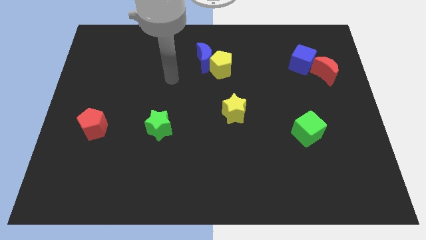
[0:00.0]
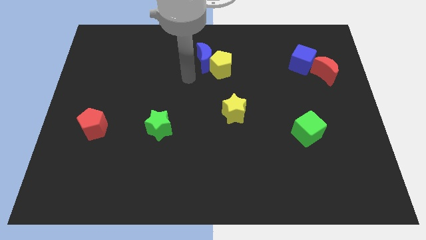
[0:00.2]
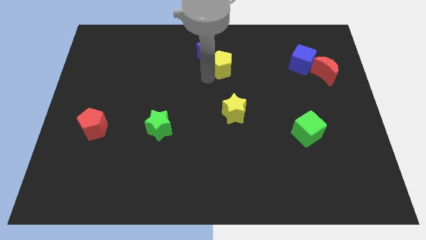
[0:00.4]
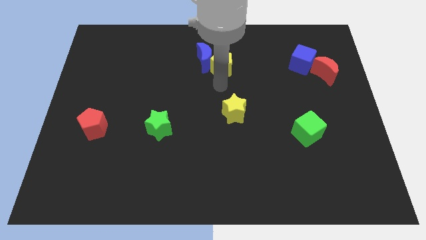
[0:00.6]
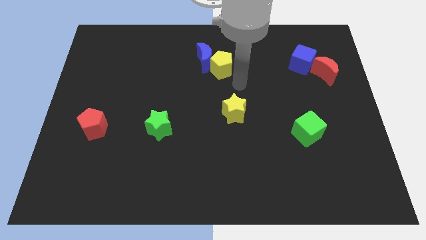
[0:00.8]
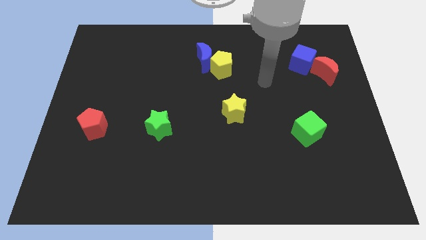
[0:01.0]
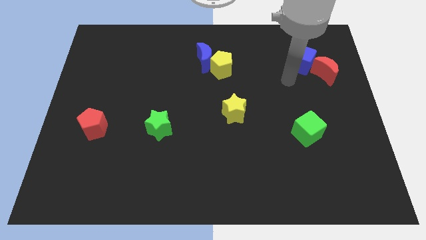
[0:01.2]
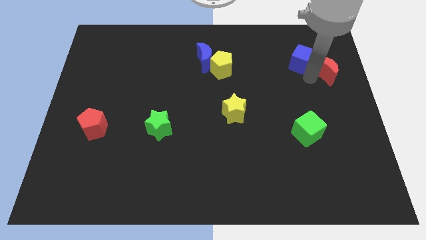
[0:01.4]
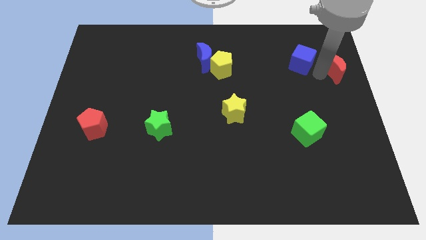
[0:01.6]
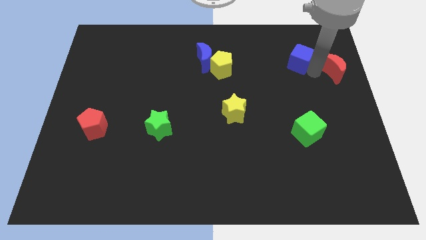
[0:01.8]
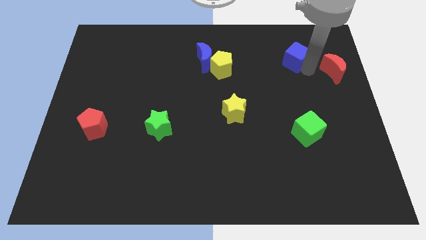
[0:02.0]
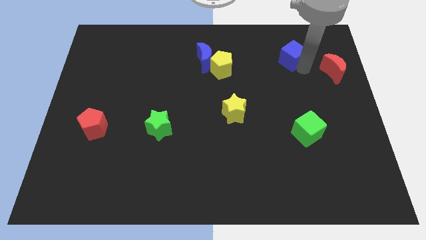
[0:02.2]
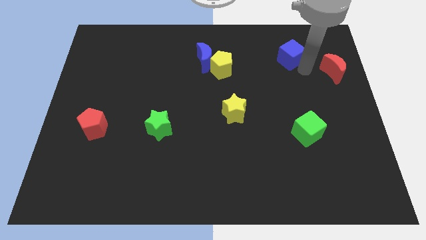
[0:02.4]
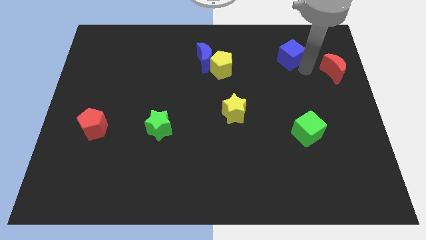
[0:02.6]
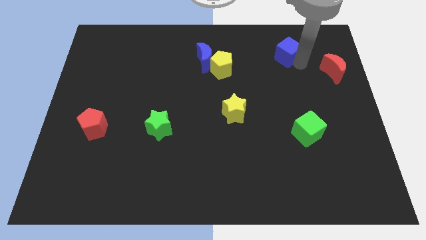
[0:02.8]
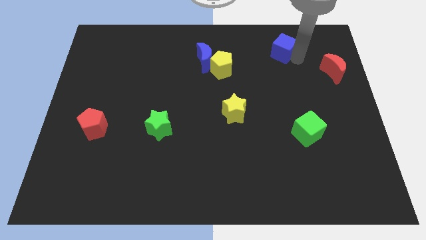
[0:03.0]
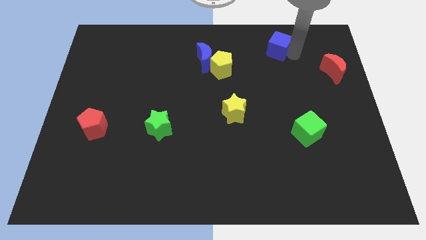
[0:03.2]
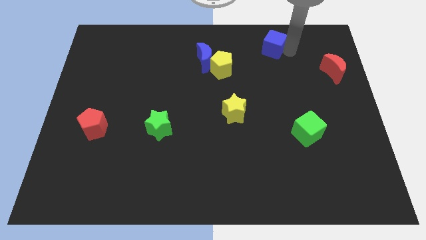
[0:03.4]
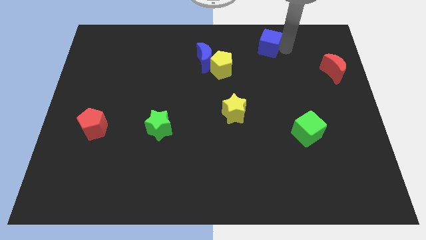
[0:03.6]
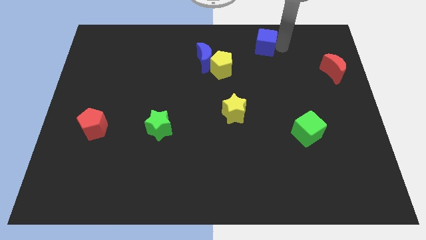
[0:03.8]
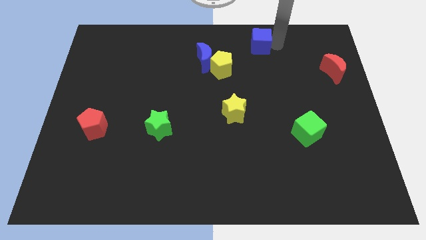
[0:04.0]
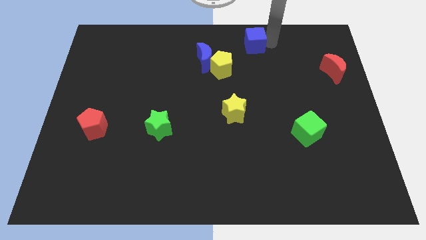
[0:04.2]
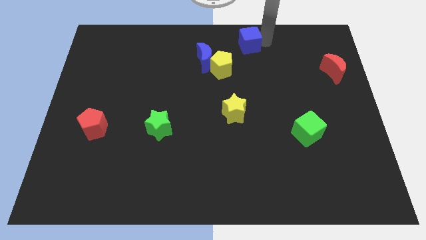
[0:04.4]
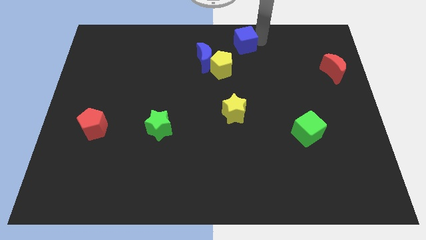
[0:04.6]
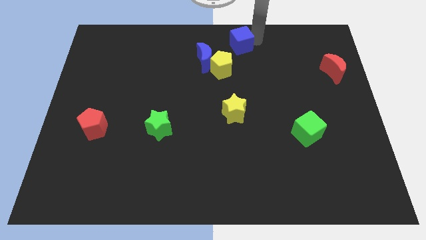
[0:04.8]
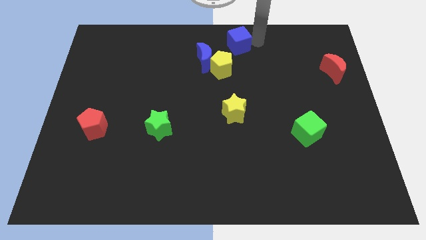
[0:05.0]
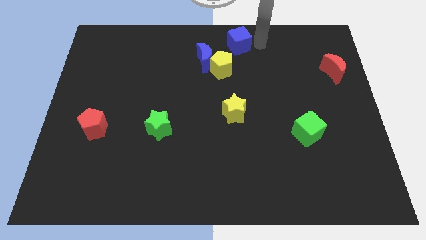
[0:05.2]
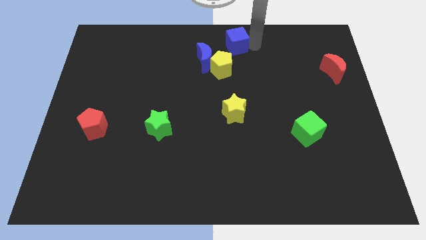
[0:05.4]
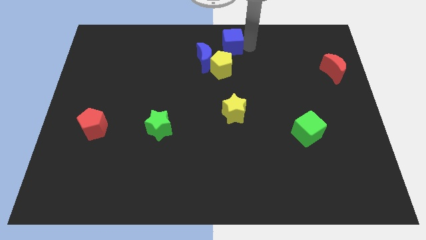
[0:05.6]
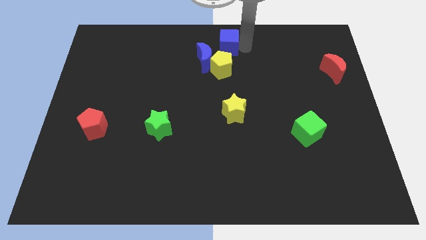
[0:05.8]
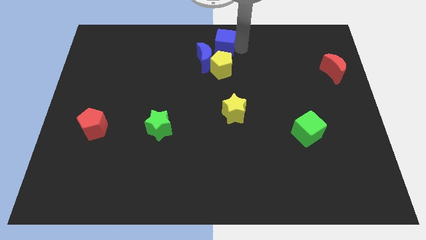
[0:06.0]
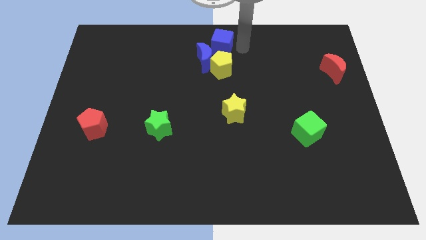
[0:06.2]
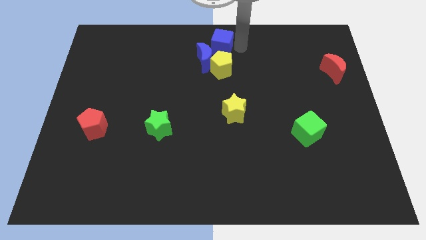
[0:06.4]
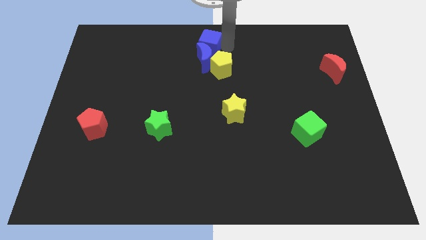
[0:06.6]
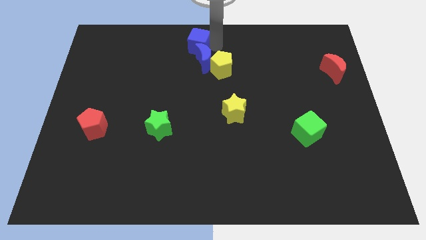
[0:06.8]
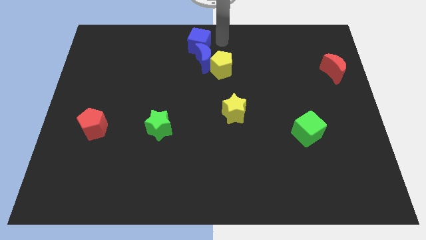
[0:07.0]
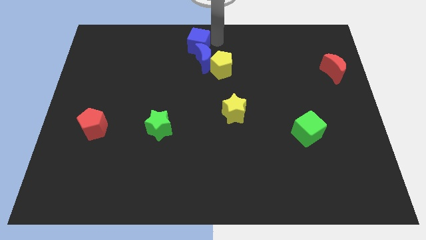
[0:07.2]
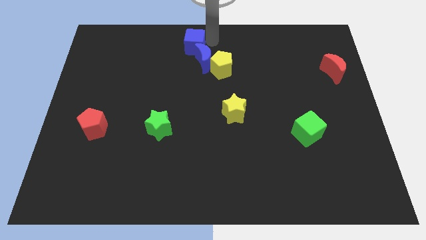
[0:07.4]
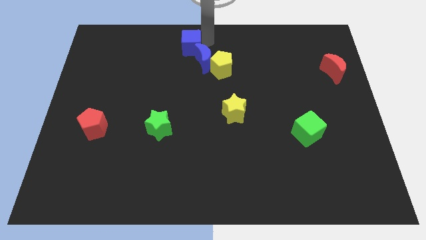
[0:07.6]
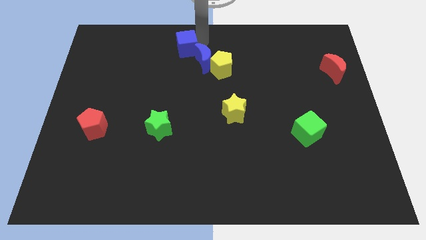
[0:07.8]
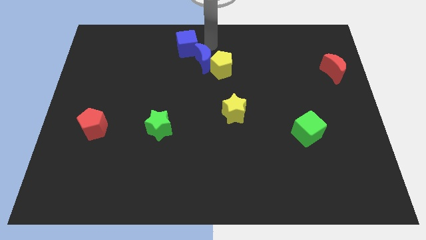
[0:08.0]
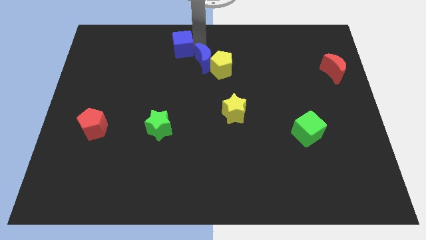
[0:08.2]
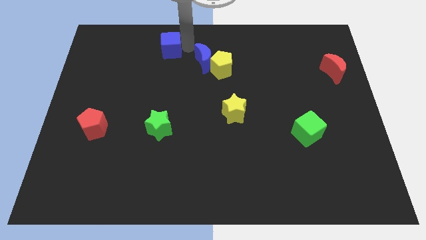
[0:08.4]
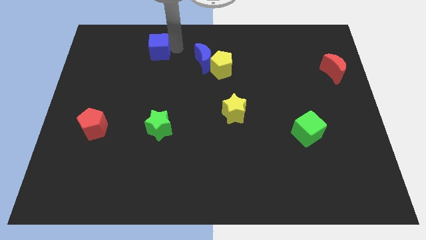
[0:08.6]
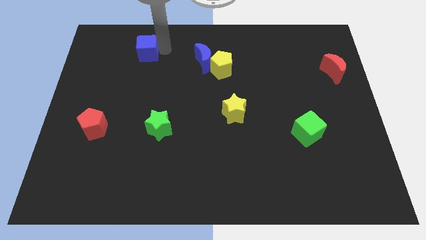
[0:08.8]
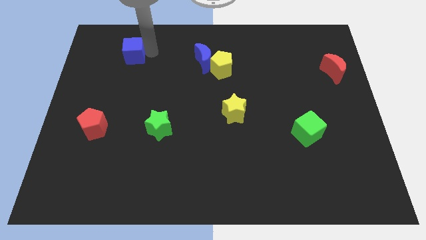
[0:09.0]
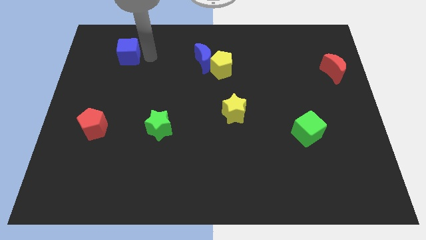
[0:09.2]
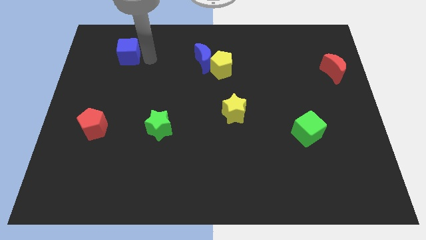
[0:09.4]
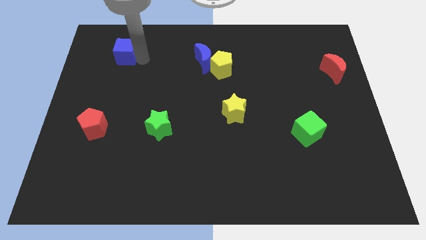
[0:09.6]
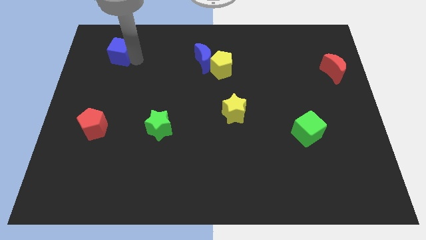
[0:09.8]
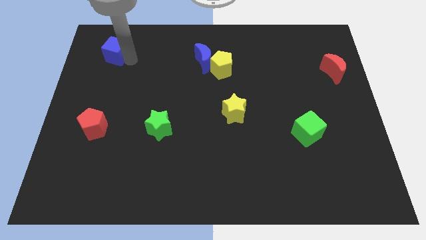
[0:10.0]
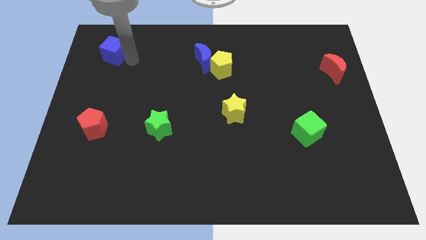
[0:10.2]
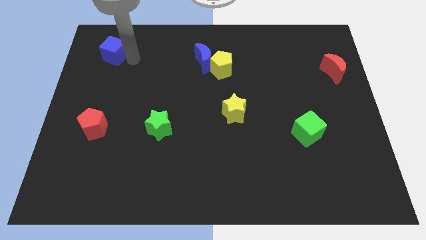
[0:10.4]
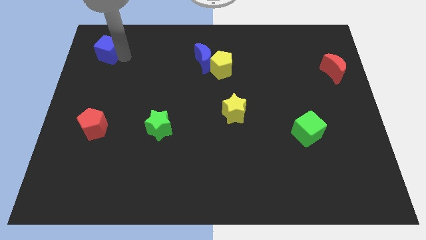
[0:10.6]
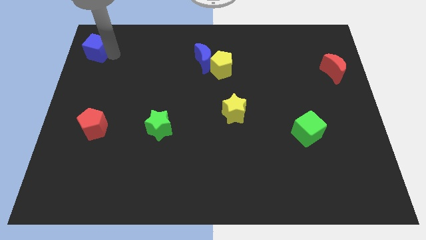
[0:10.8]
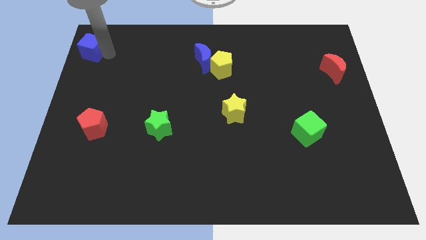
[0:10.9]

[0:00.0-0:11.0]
move the blue cube to the top left
